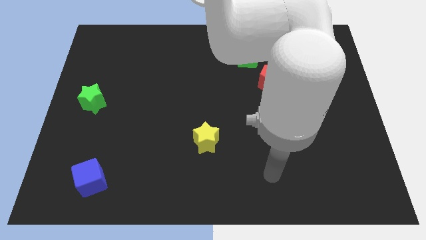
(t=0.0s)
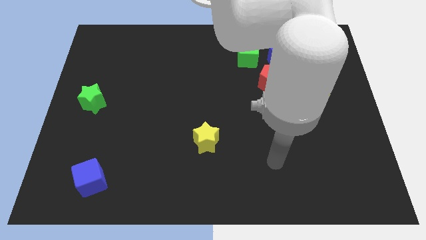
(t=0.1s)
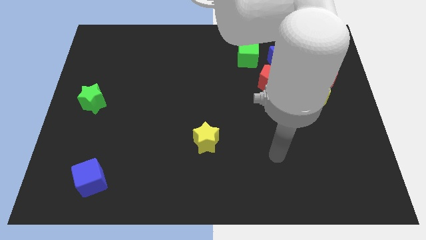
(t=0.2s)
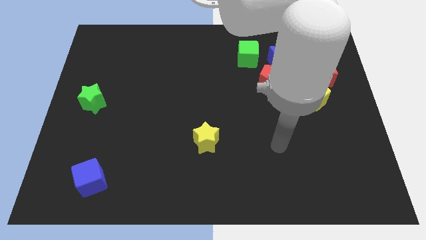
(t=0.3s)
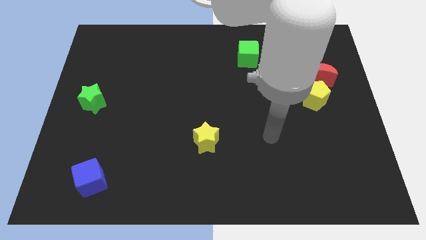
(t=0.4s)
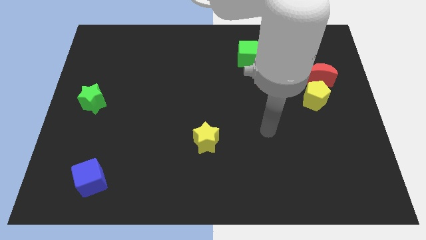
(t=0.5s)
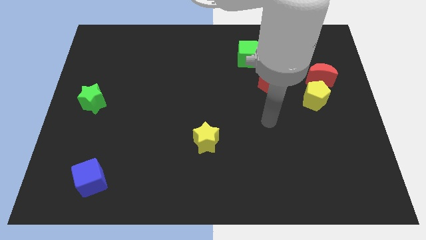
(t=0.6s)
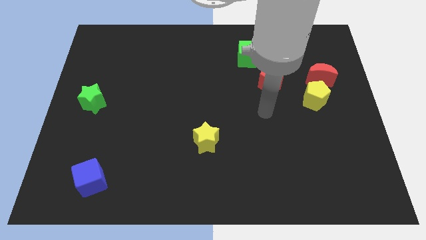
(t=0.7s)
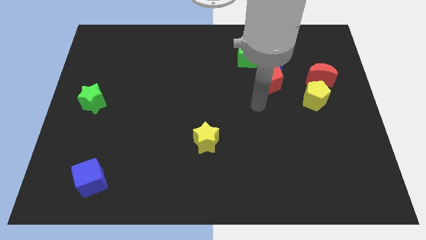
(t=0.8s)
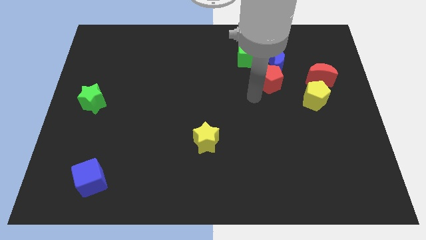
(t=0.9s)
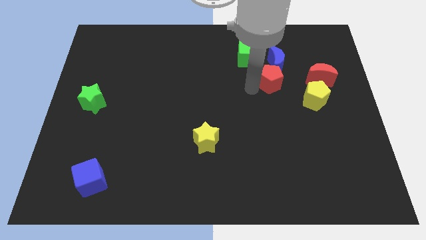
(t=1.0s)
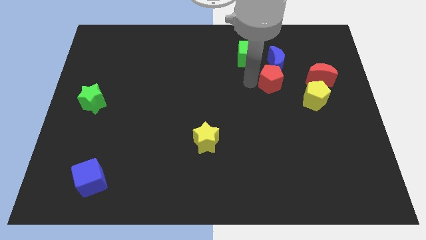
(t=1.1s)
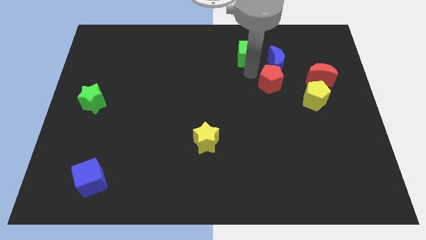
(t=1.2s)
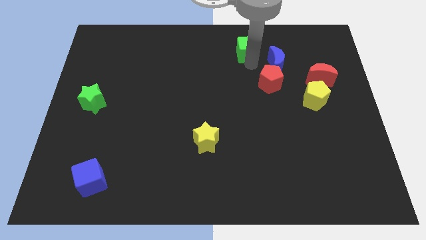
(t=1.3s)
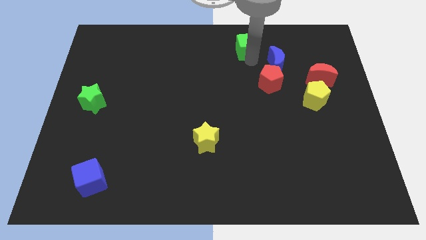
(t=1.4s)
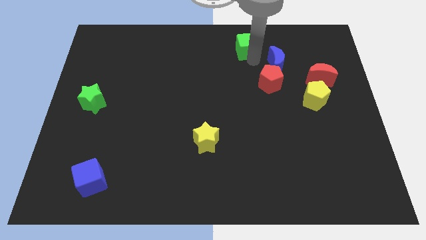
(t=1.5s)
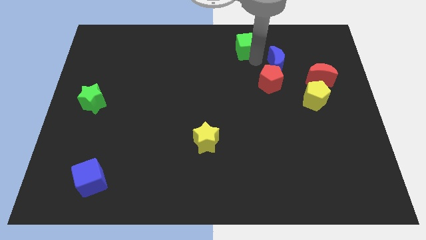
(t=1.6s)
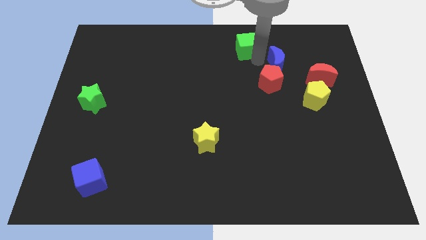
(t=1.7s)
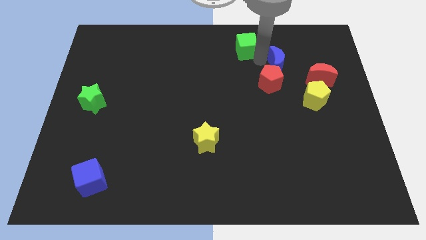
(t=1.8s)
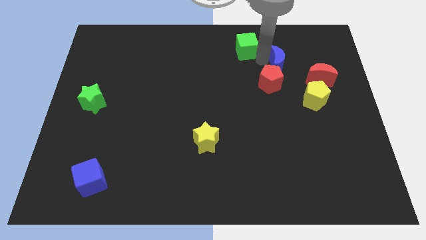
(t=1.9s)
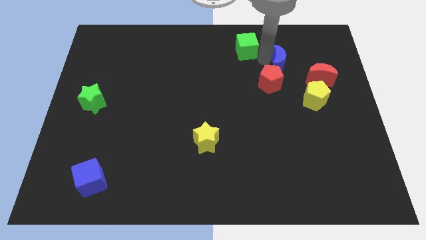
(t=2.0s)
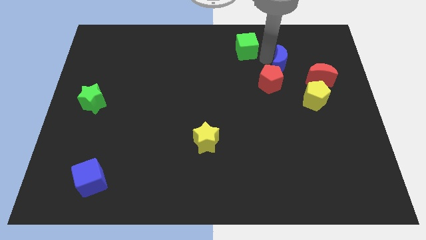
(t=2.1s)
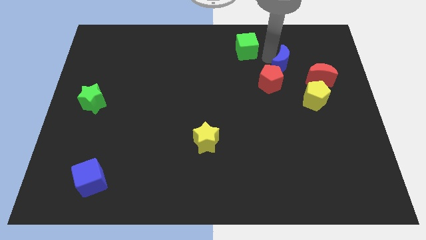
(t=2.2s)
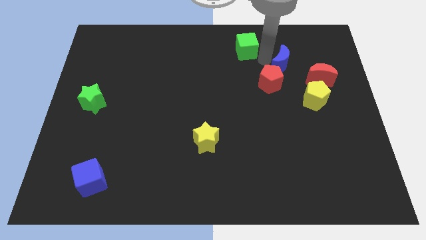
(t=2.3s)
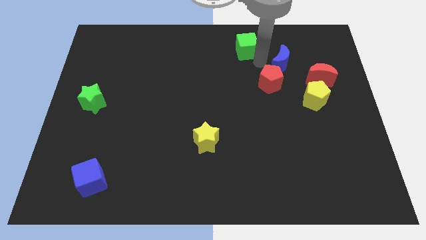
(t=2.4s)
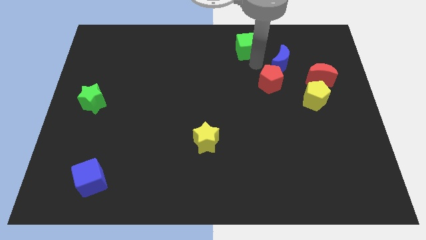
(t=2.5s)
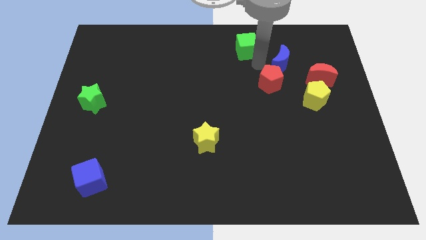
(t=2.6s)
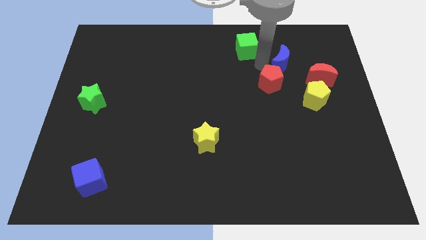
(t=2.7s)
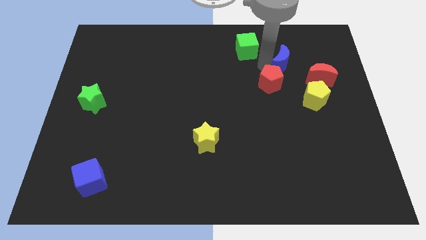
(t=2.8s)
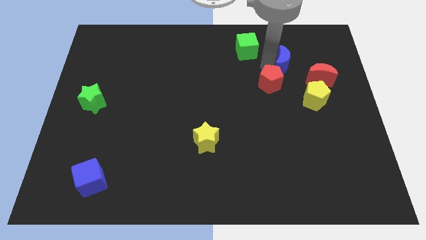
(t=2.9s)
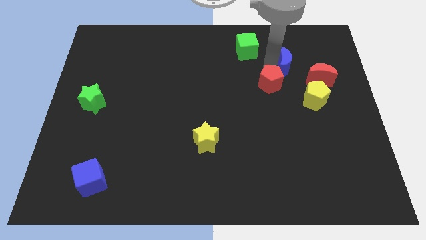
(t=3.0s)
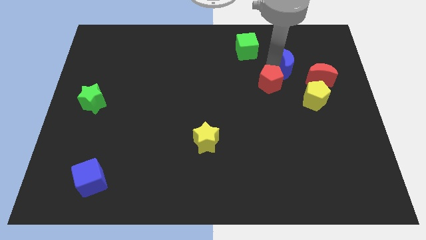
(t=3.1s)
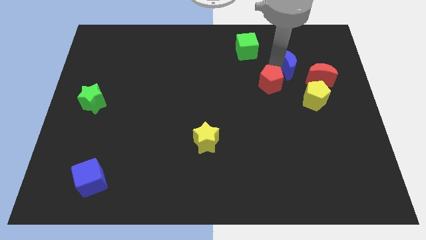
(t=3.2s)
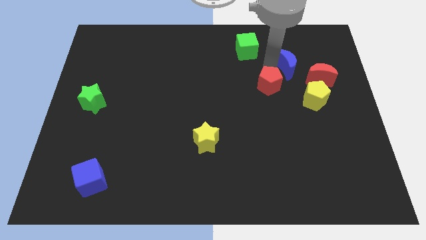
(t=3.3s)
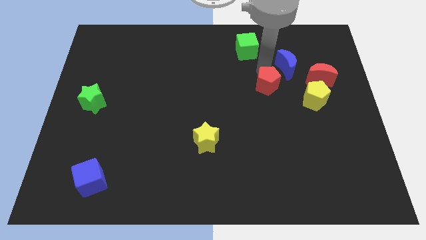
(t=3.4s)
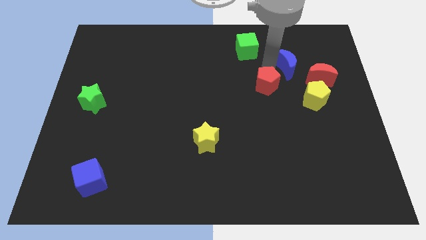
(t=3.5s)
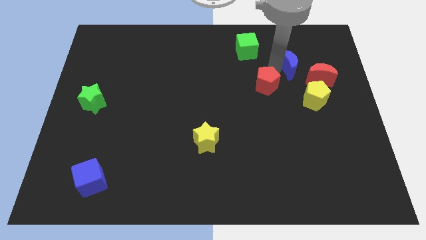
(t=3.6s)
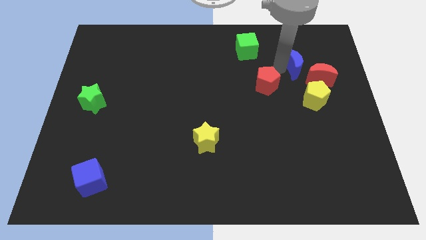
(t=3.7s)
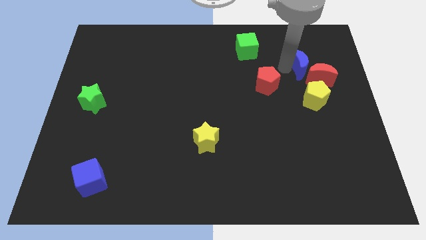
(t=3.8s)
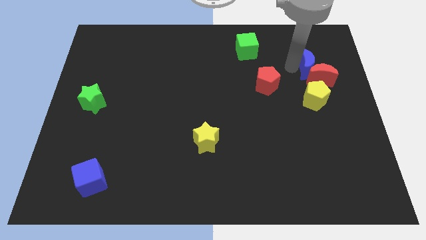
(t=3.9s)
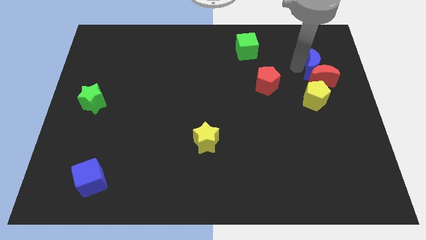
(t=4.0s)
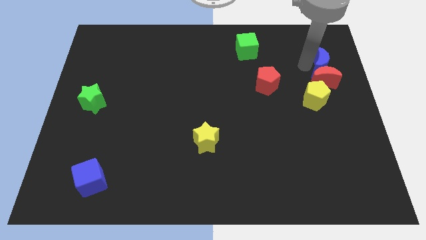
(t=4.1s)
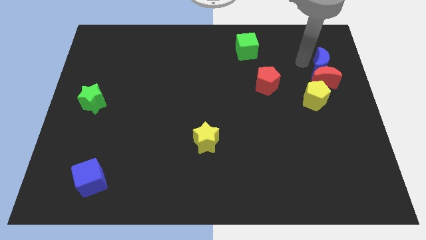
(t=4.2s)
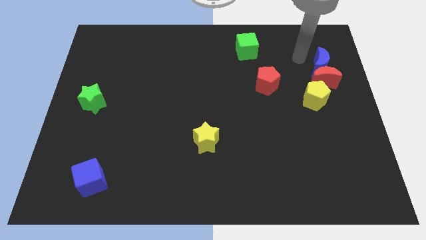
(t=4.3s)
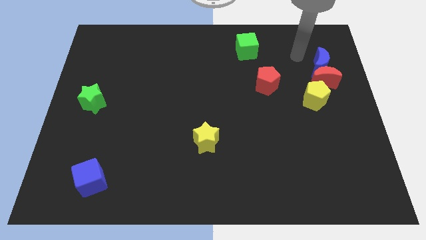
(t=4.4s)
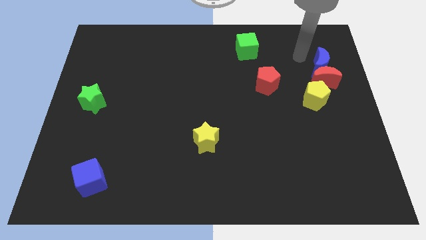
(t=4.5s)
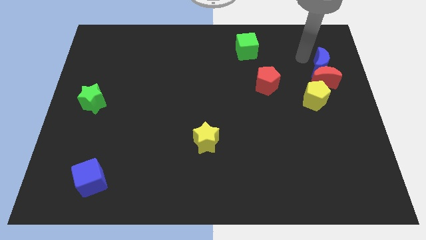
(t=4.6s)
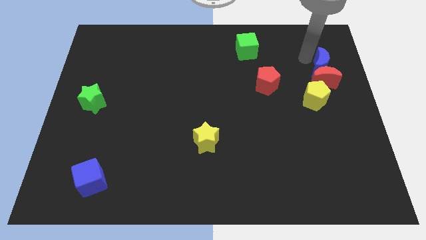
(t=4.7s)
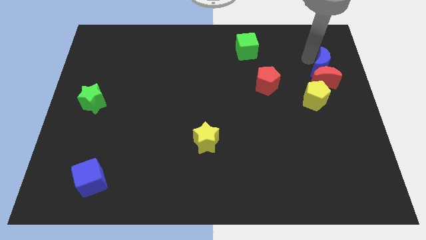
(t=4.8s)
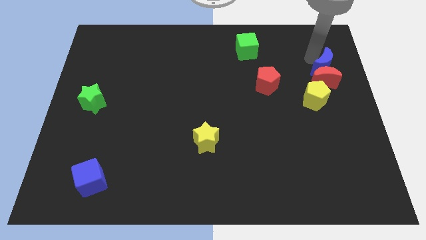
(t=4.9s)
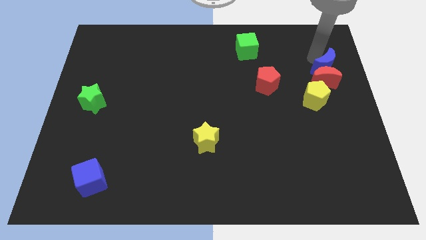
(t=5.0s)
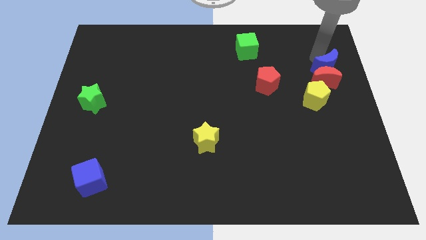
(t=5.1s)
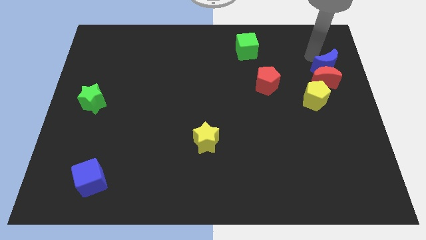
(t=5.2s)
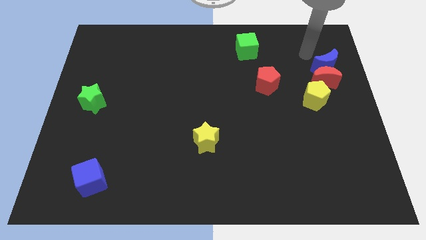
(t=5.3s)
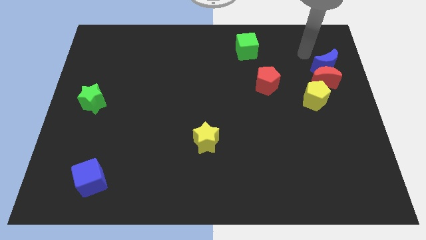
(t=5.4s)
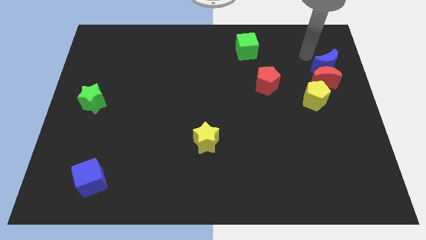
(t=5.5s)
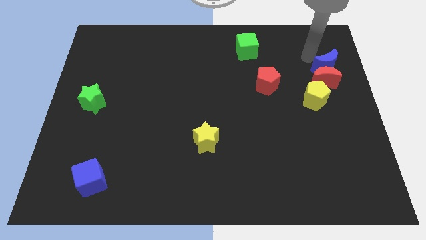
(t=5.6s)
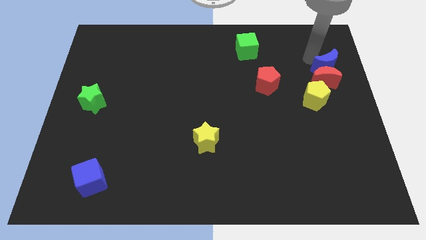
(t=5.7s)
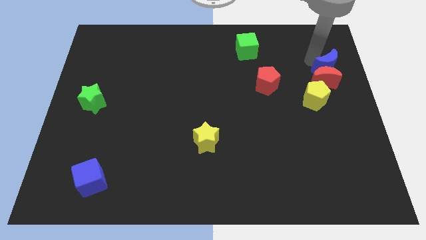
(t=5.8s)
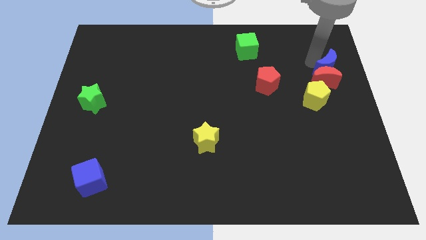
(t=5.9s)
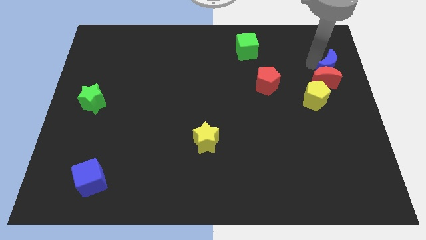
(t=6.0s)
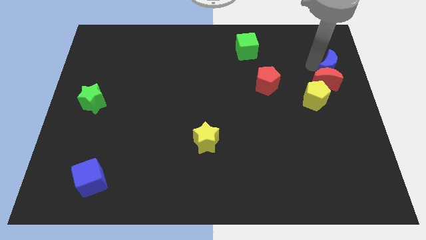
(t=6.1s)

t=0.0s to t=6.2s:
push the blue moon to the right side
